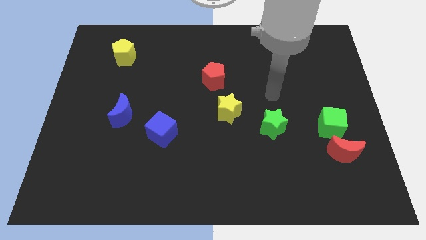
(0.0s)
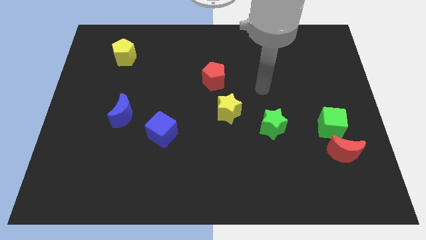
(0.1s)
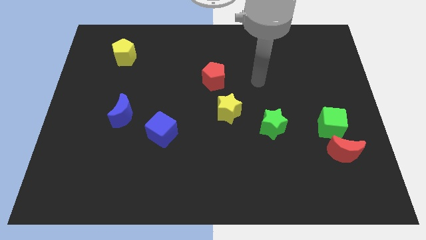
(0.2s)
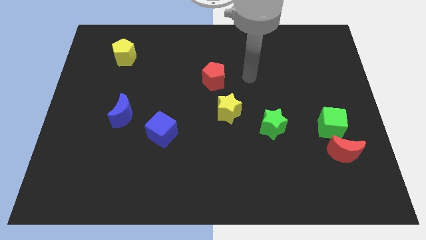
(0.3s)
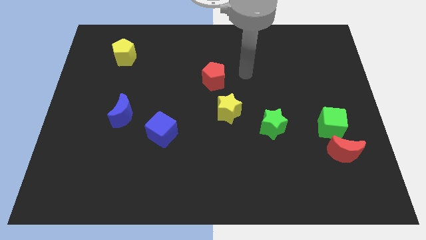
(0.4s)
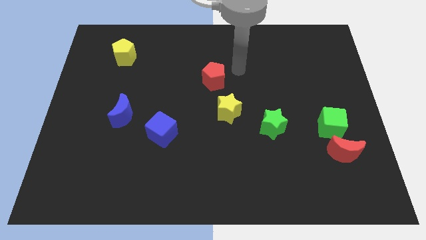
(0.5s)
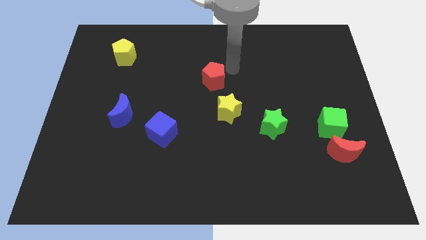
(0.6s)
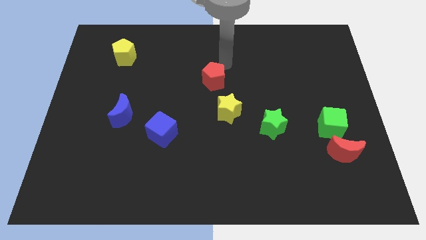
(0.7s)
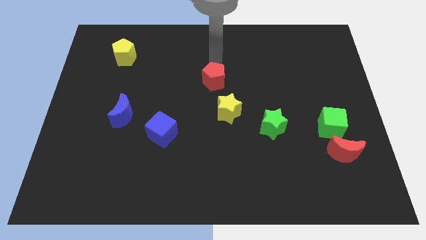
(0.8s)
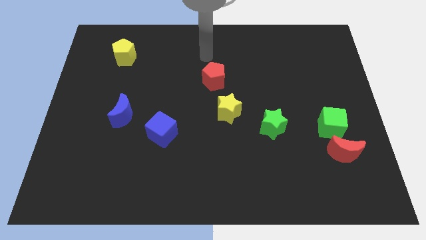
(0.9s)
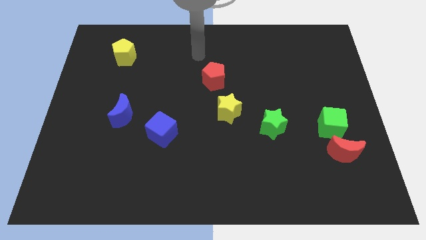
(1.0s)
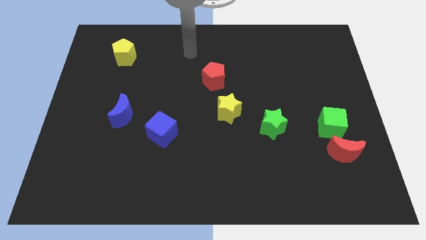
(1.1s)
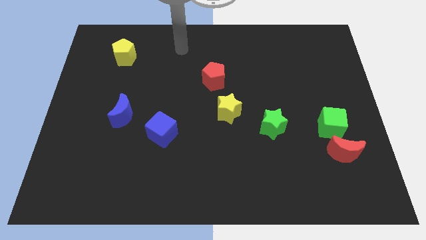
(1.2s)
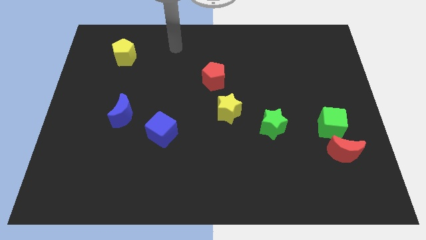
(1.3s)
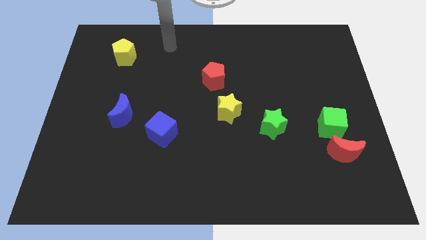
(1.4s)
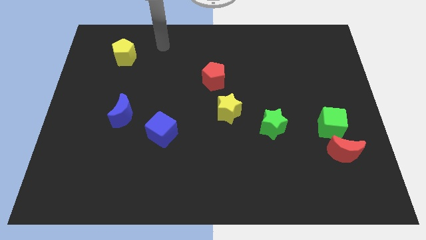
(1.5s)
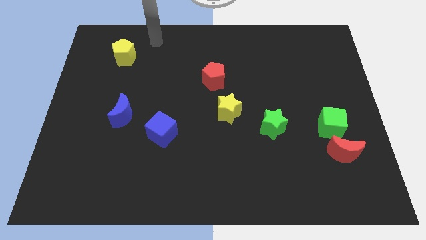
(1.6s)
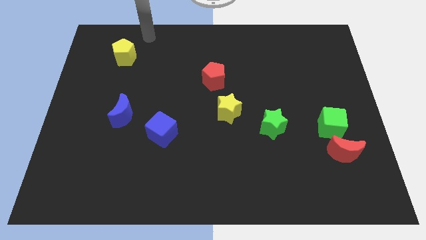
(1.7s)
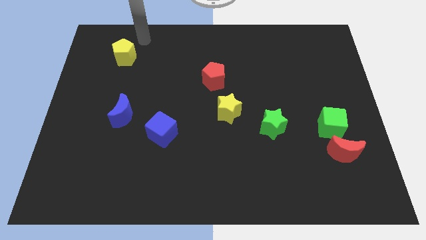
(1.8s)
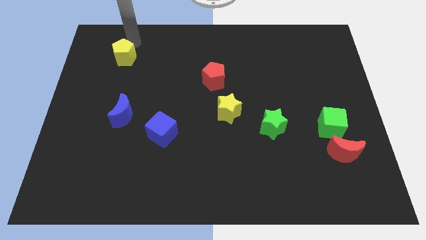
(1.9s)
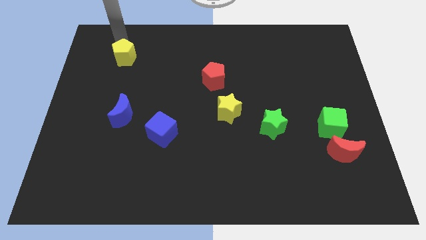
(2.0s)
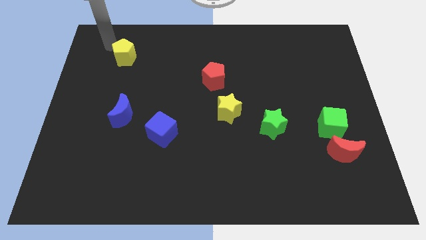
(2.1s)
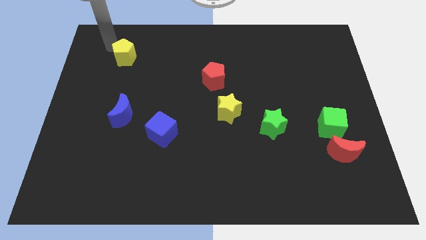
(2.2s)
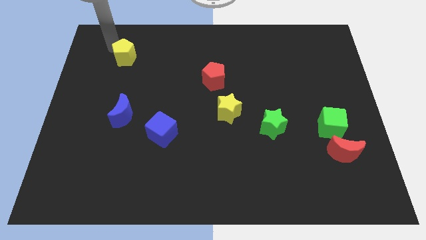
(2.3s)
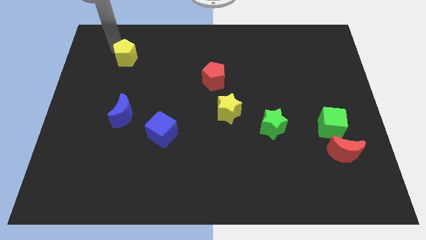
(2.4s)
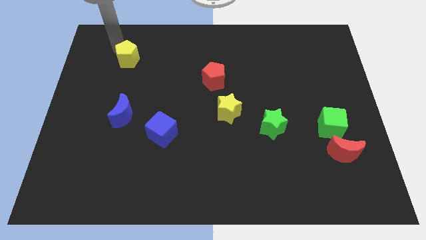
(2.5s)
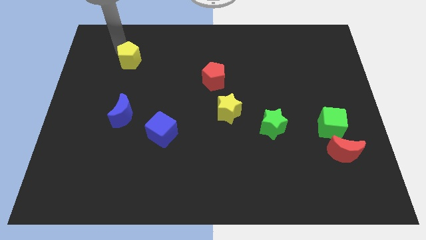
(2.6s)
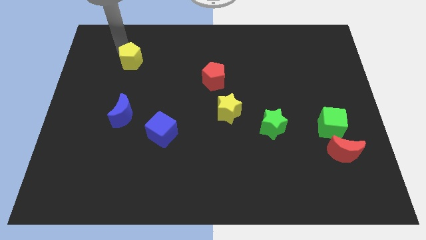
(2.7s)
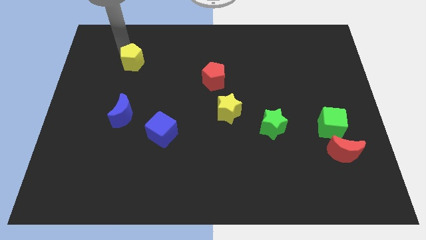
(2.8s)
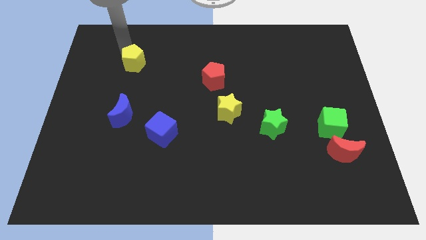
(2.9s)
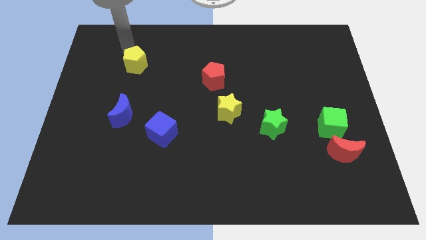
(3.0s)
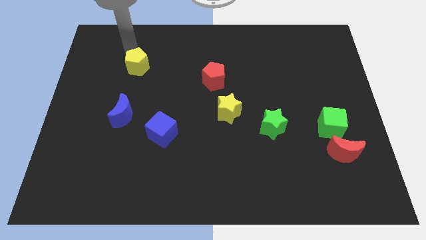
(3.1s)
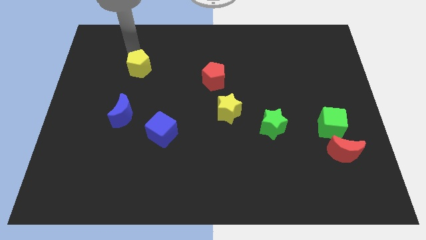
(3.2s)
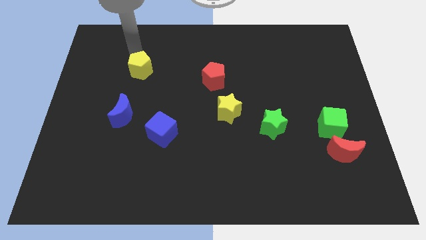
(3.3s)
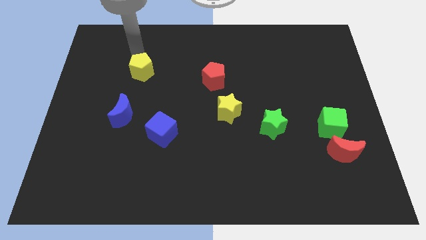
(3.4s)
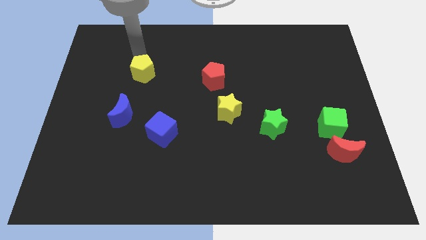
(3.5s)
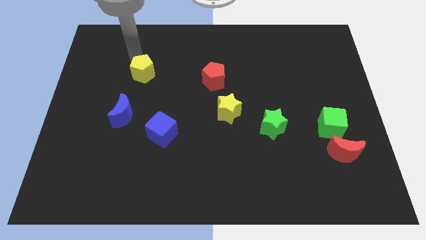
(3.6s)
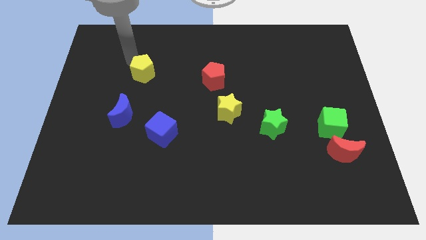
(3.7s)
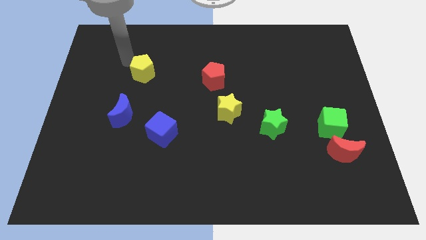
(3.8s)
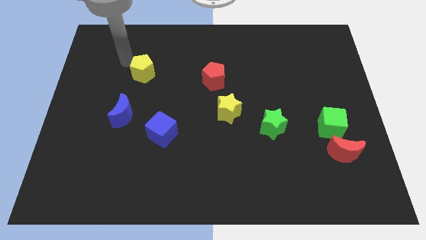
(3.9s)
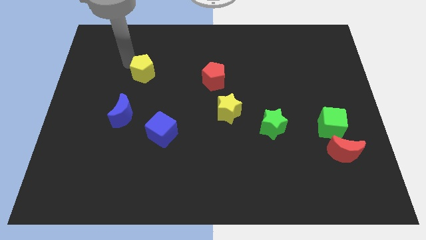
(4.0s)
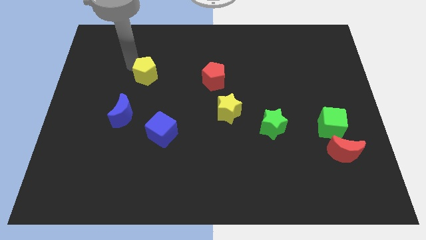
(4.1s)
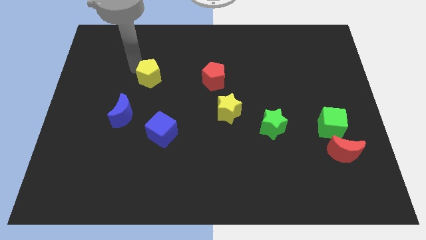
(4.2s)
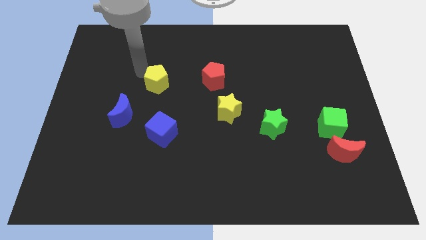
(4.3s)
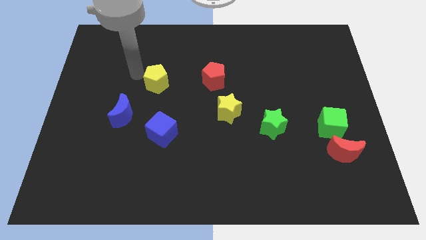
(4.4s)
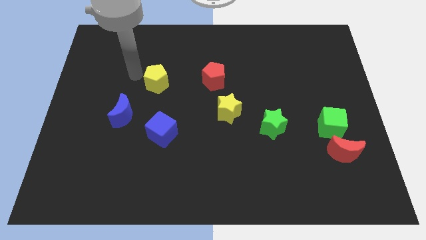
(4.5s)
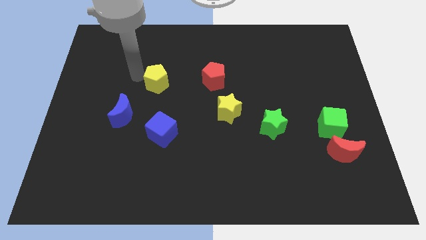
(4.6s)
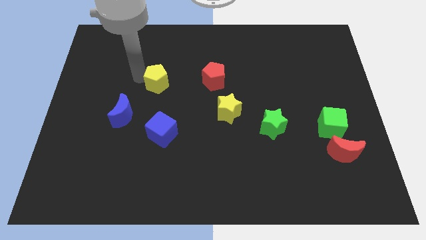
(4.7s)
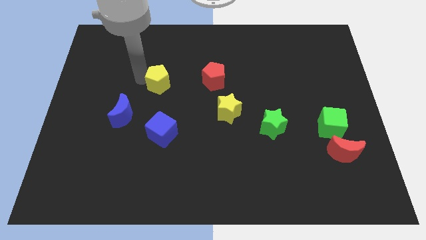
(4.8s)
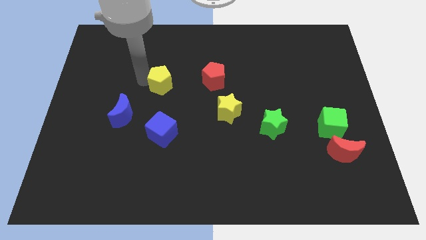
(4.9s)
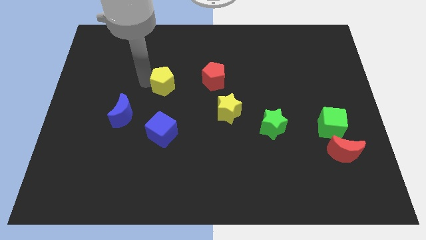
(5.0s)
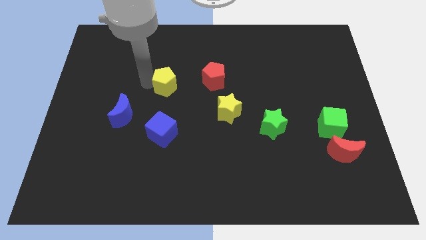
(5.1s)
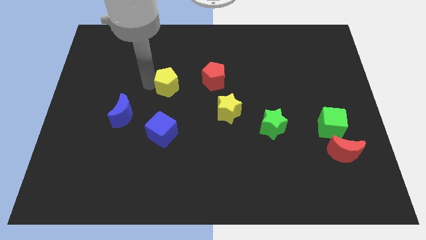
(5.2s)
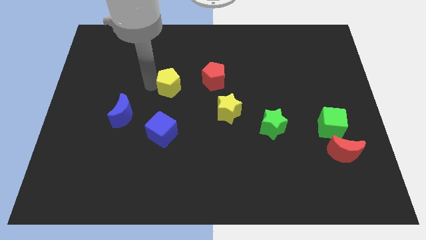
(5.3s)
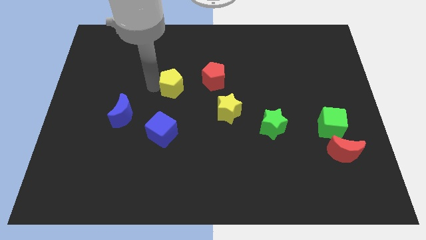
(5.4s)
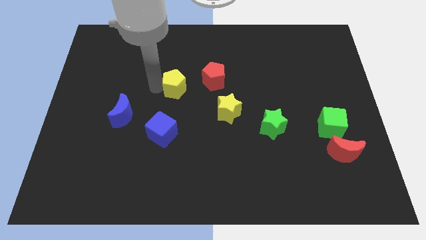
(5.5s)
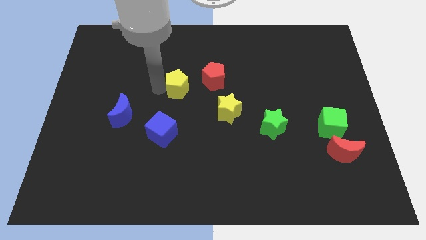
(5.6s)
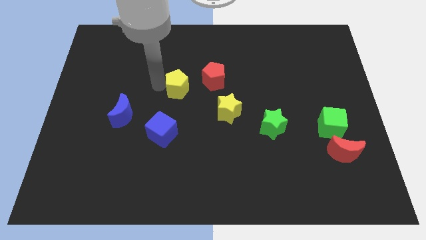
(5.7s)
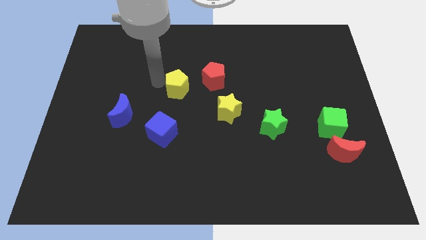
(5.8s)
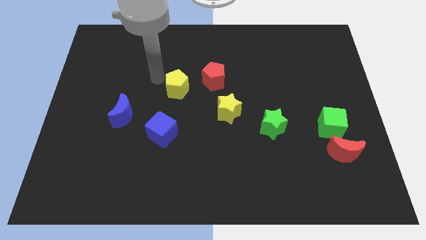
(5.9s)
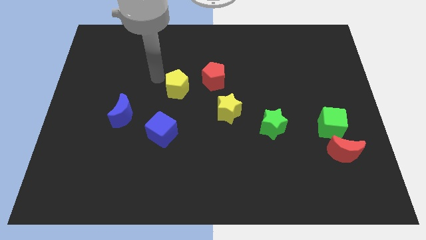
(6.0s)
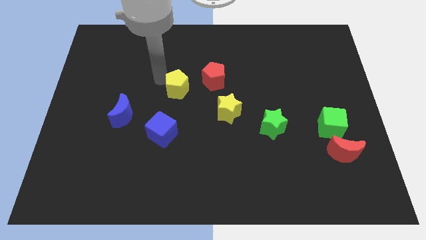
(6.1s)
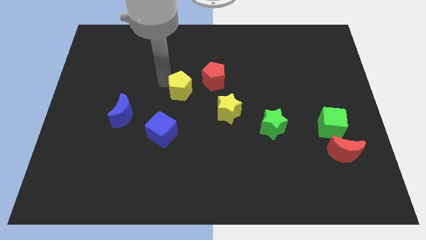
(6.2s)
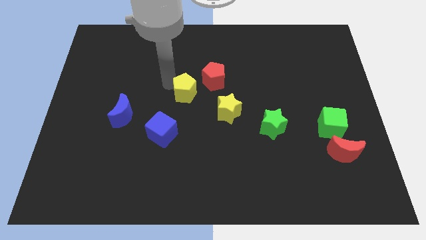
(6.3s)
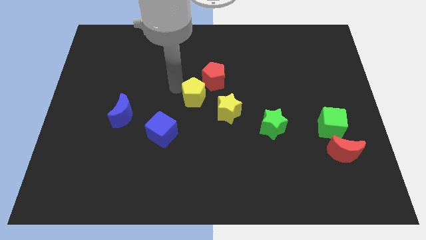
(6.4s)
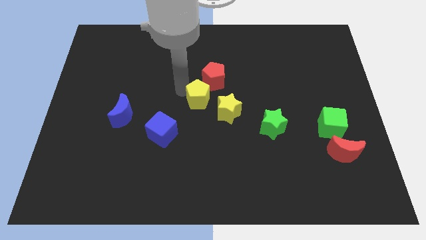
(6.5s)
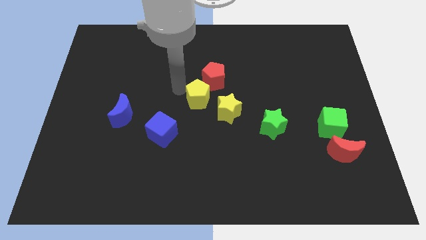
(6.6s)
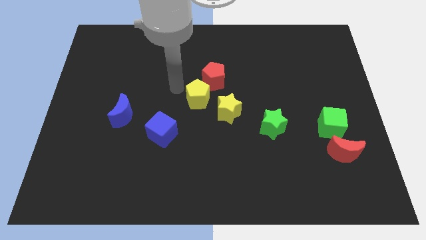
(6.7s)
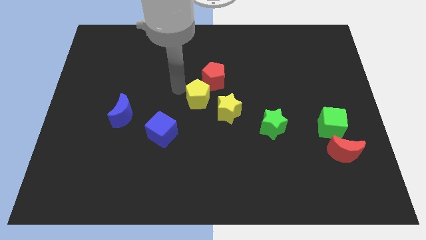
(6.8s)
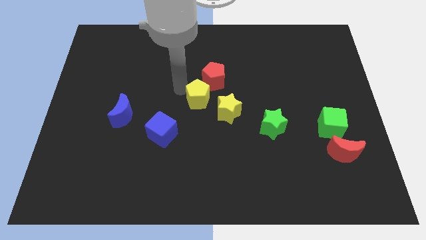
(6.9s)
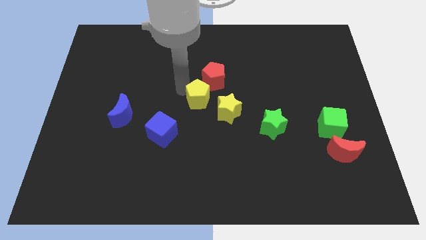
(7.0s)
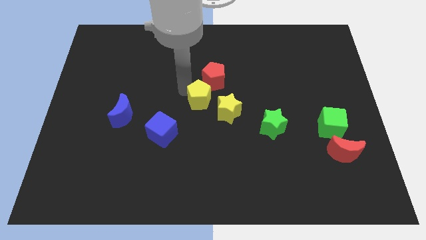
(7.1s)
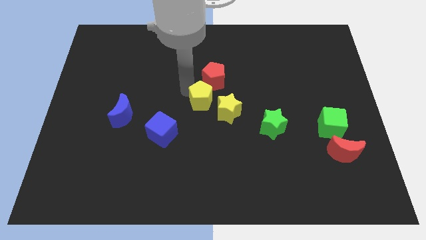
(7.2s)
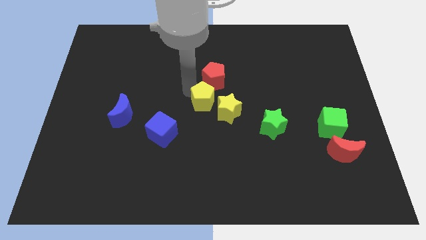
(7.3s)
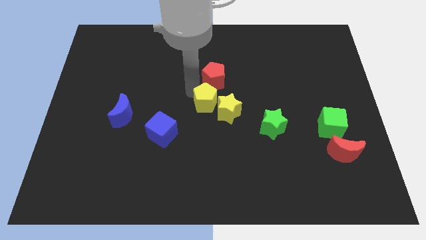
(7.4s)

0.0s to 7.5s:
push the yellow pentagon close to the yellow star

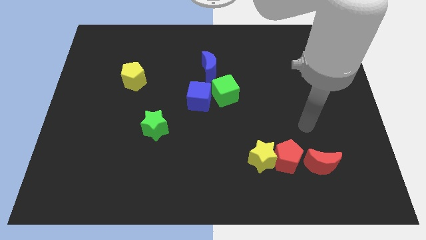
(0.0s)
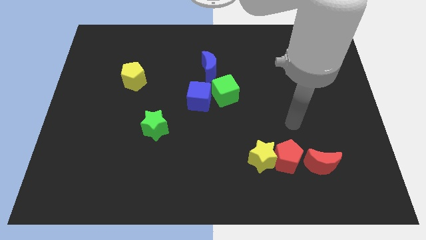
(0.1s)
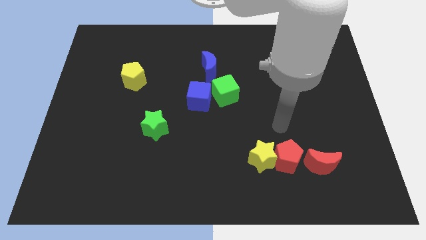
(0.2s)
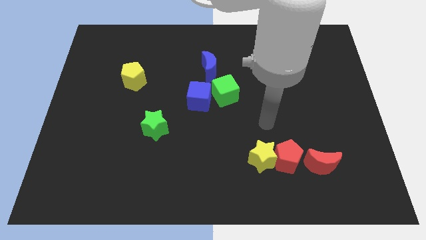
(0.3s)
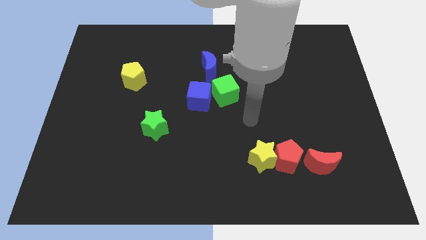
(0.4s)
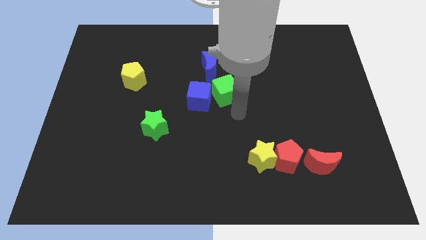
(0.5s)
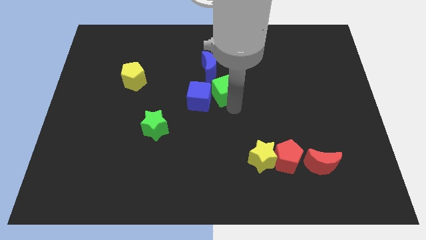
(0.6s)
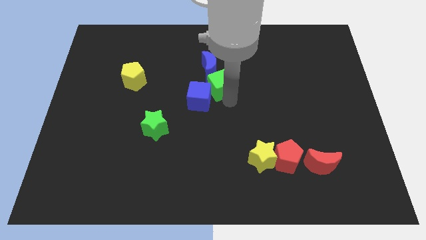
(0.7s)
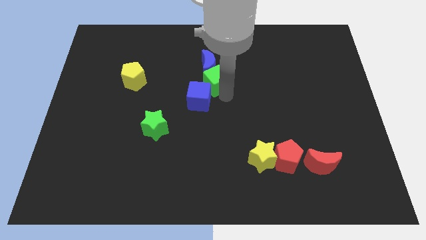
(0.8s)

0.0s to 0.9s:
slide the green cube to the blue moon
